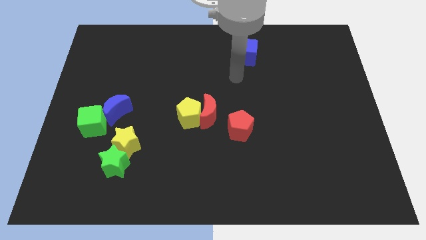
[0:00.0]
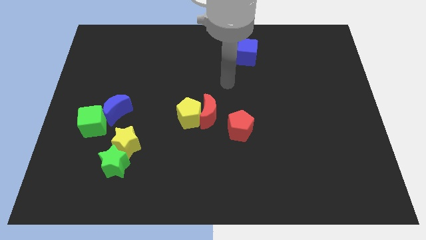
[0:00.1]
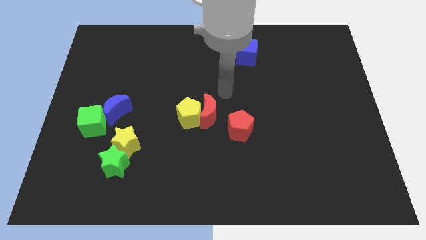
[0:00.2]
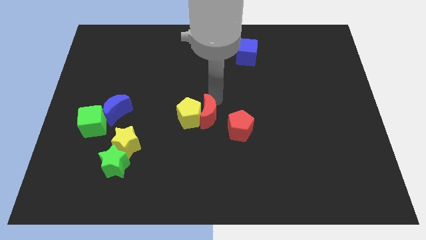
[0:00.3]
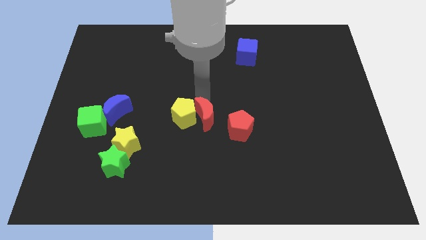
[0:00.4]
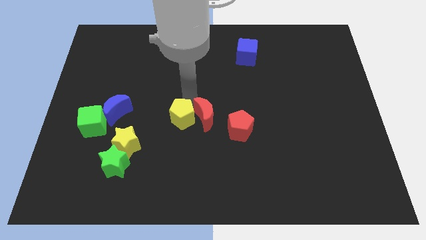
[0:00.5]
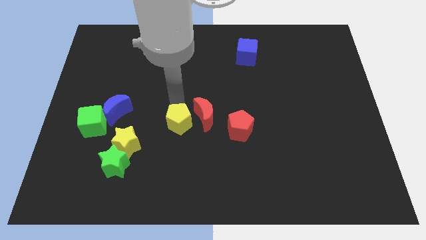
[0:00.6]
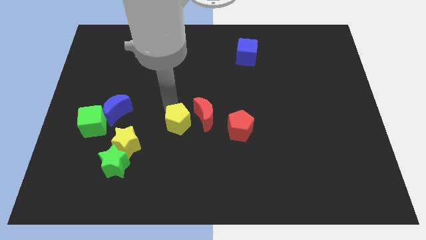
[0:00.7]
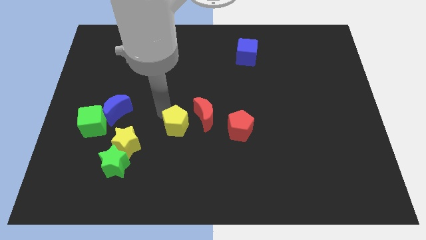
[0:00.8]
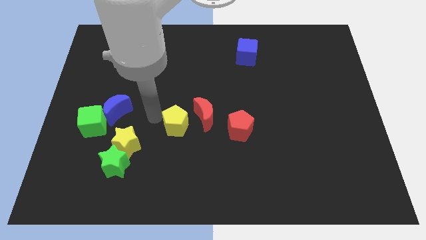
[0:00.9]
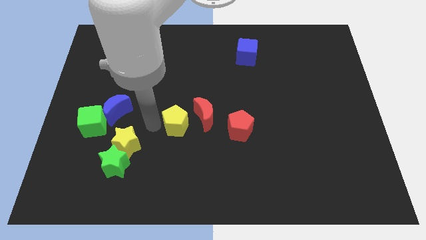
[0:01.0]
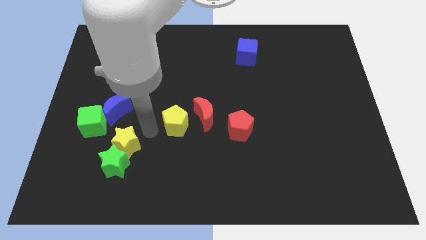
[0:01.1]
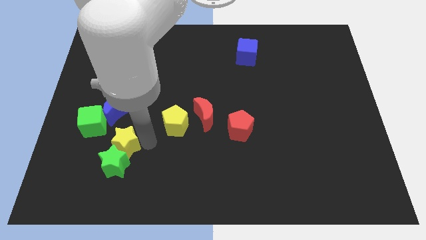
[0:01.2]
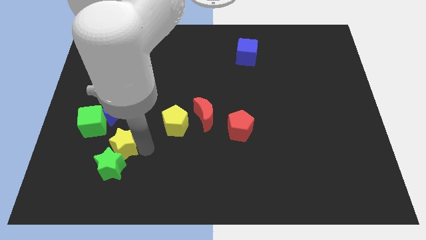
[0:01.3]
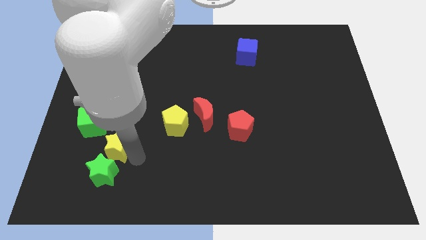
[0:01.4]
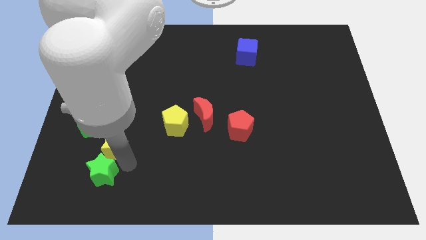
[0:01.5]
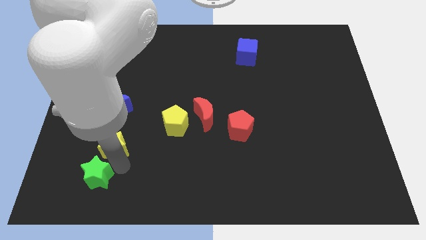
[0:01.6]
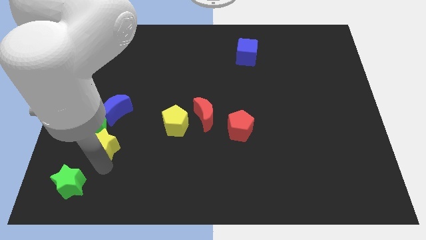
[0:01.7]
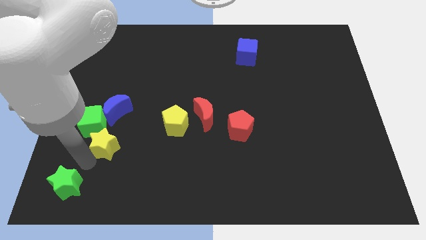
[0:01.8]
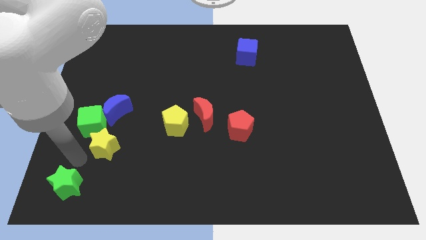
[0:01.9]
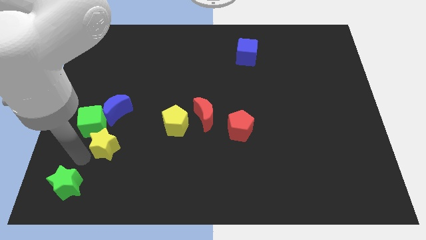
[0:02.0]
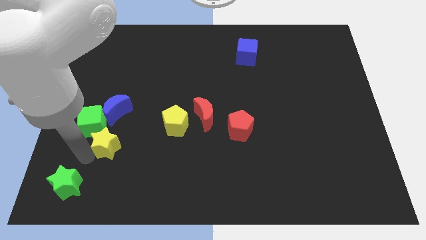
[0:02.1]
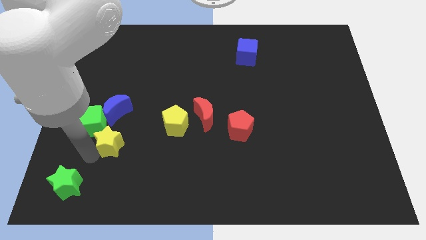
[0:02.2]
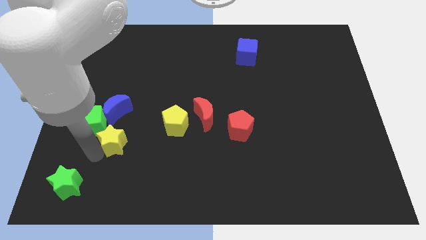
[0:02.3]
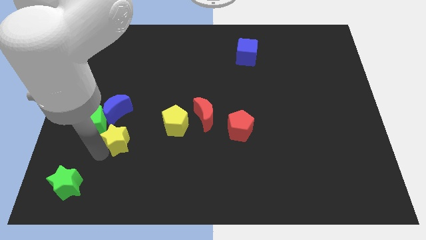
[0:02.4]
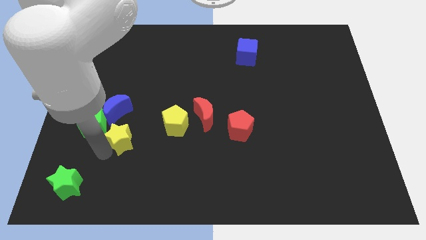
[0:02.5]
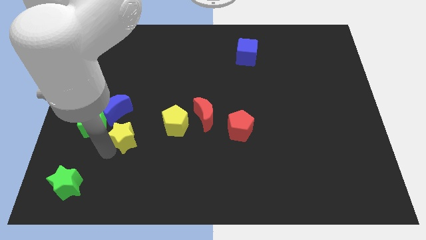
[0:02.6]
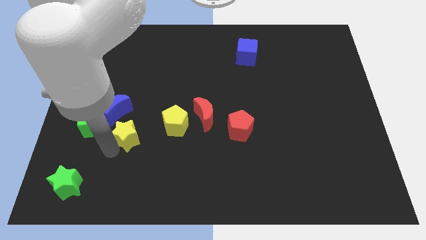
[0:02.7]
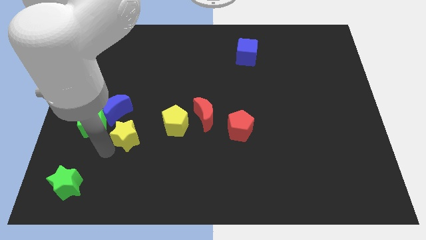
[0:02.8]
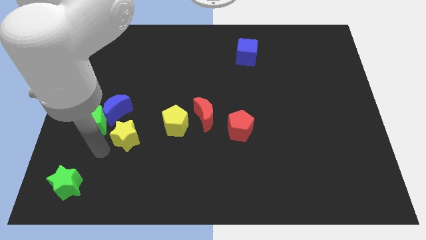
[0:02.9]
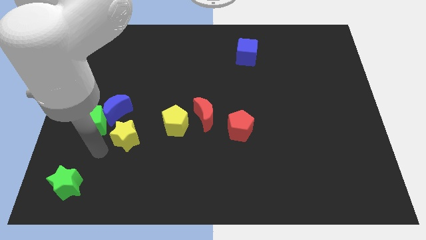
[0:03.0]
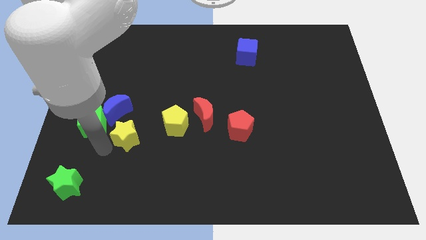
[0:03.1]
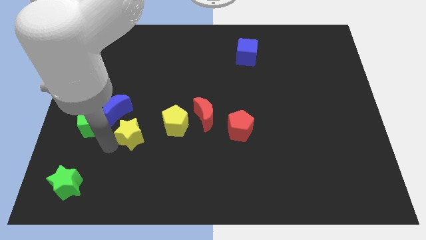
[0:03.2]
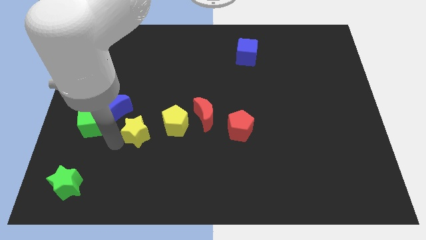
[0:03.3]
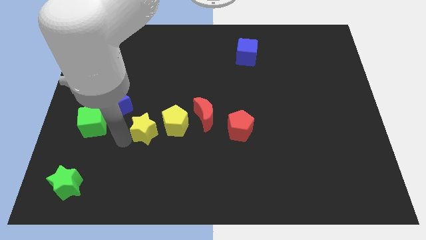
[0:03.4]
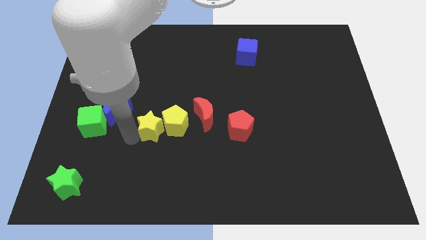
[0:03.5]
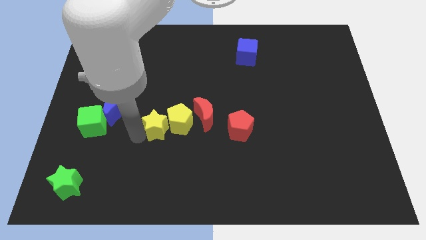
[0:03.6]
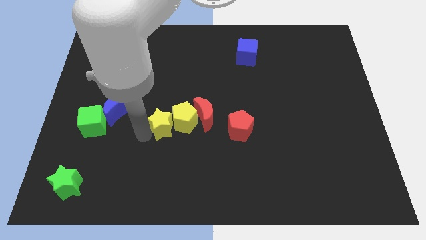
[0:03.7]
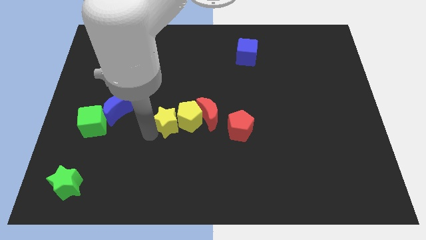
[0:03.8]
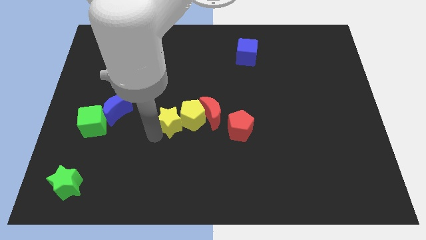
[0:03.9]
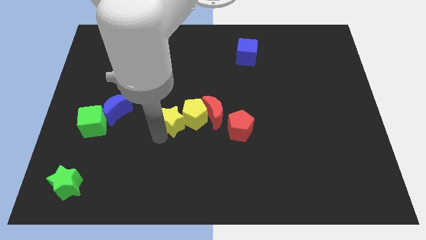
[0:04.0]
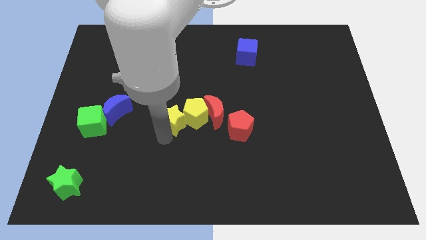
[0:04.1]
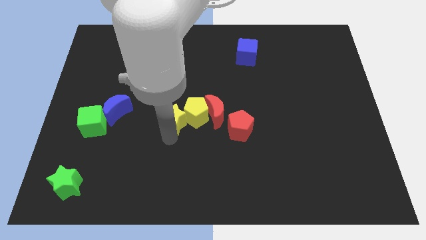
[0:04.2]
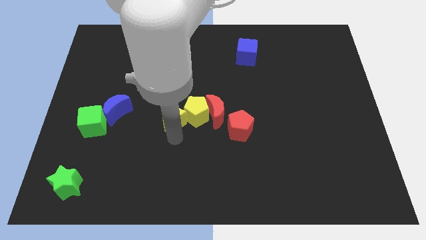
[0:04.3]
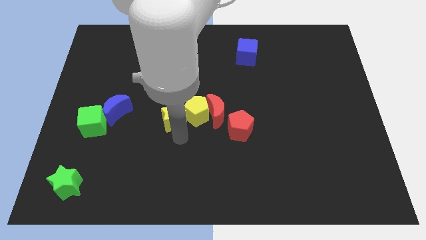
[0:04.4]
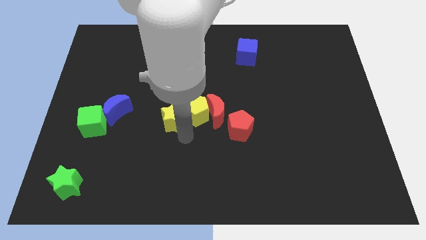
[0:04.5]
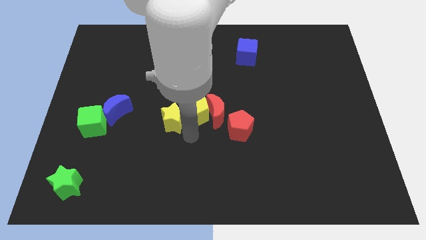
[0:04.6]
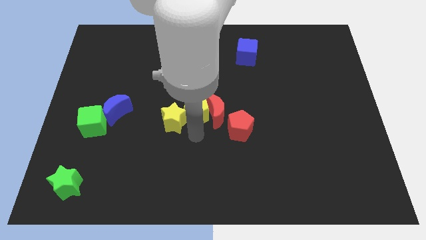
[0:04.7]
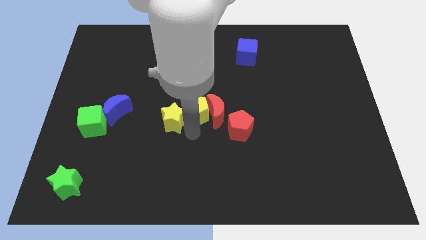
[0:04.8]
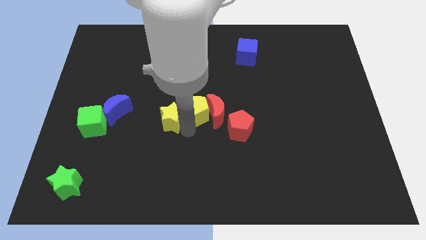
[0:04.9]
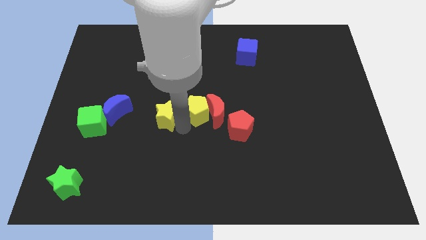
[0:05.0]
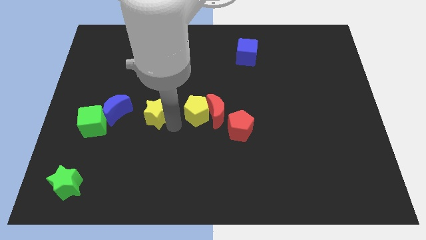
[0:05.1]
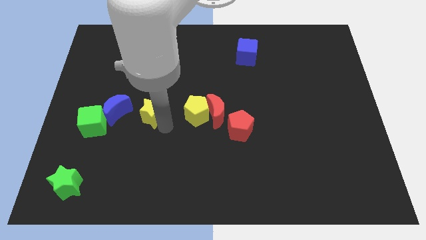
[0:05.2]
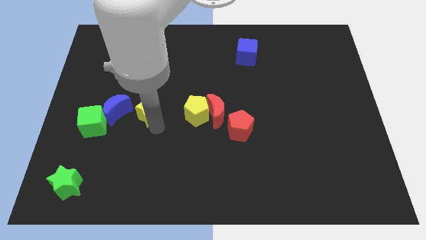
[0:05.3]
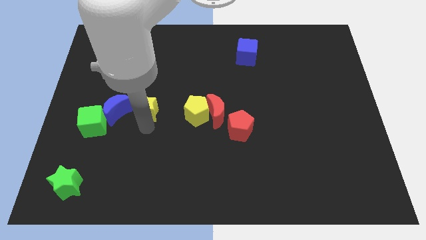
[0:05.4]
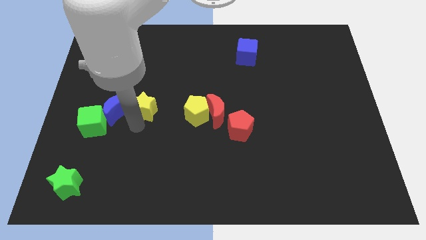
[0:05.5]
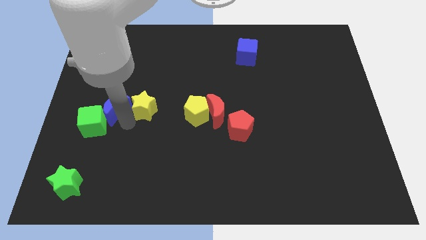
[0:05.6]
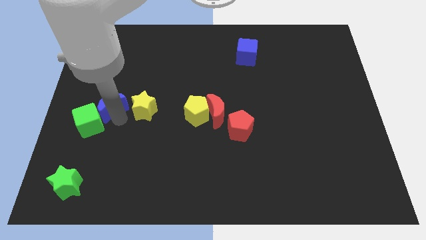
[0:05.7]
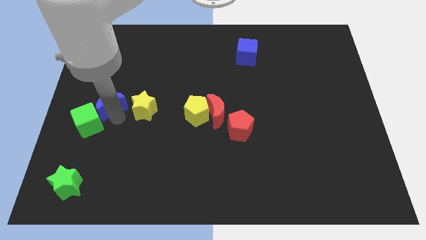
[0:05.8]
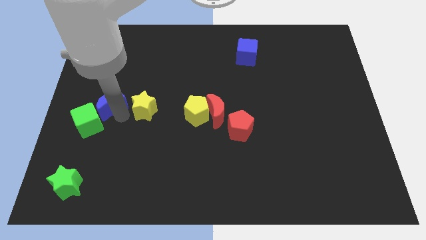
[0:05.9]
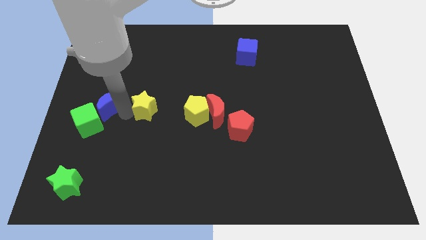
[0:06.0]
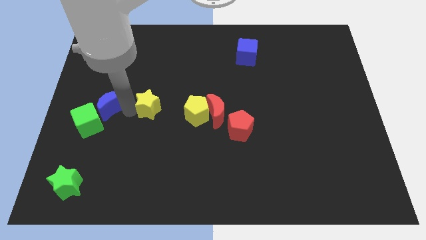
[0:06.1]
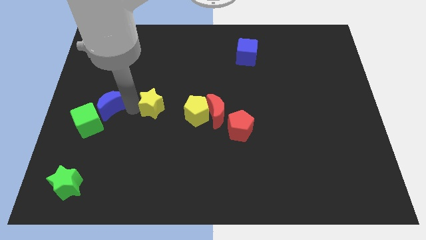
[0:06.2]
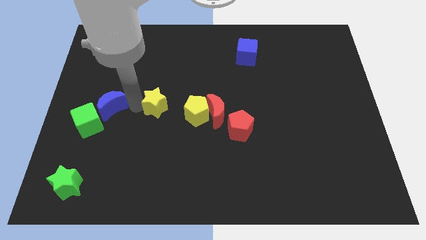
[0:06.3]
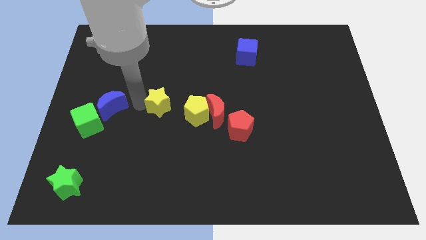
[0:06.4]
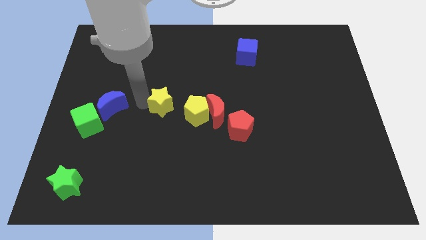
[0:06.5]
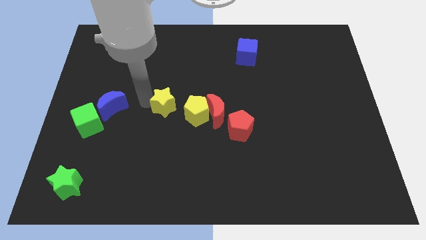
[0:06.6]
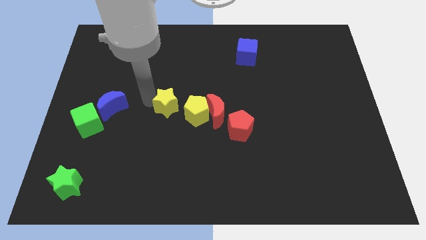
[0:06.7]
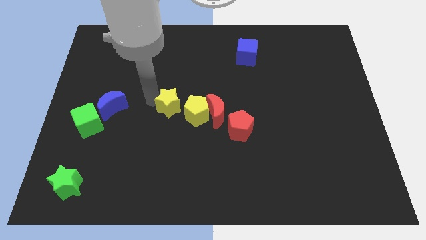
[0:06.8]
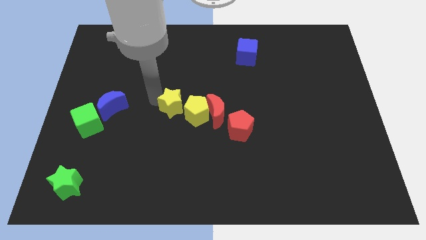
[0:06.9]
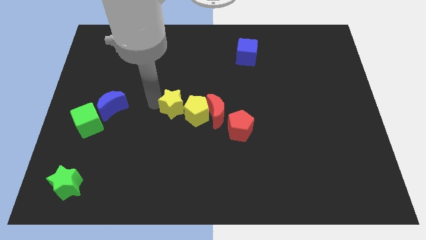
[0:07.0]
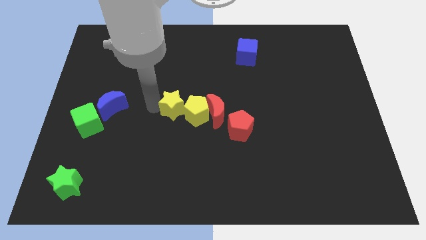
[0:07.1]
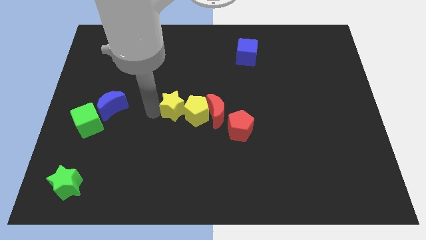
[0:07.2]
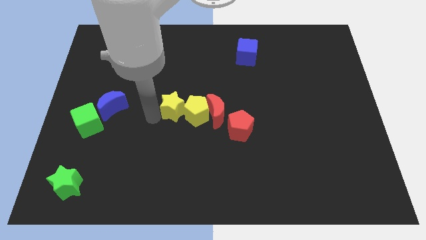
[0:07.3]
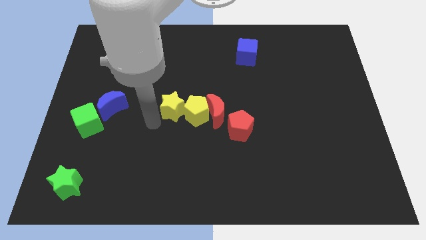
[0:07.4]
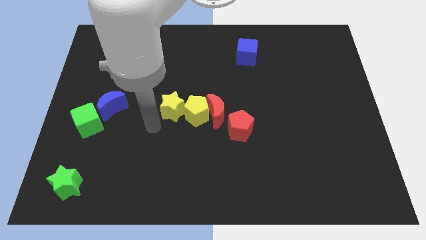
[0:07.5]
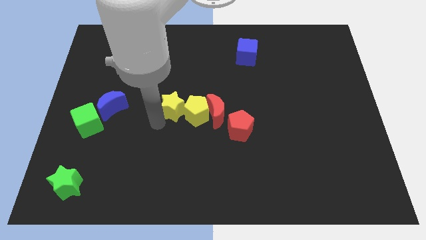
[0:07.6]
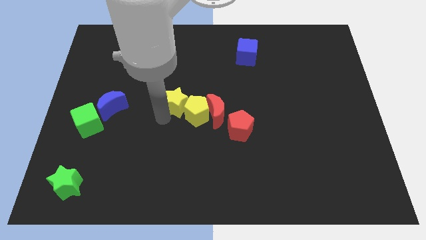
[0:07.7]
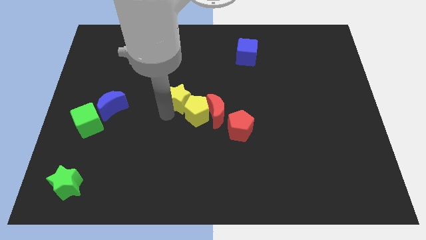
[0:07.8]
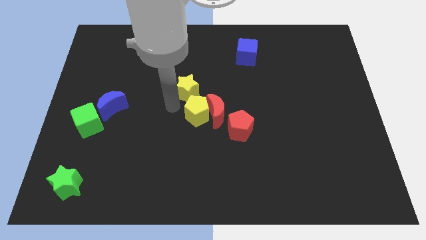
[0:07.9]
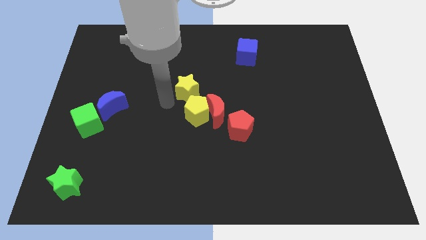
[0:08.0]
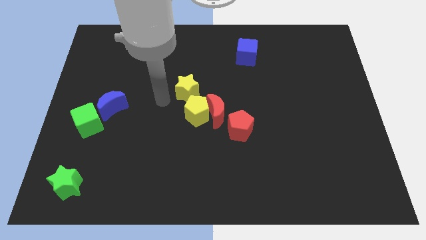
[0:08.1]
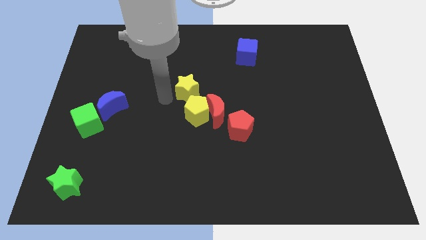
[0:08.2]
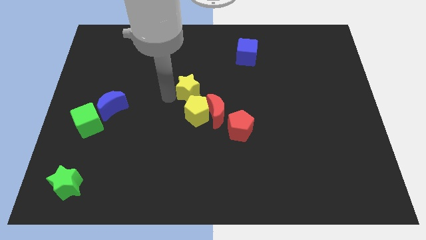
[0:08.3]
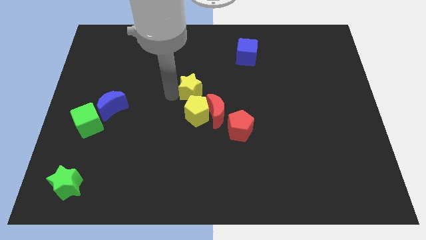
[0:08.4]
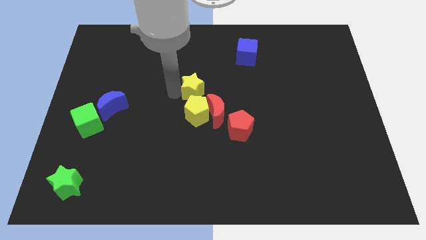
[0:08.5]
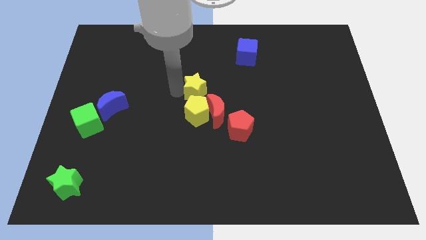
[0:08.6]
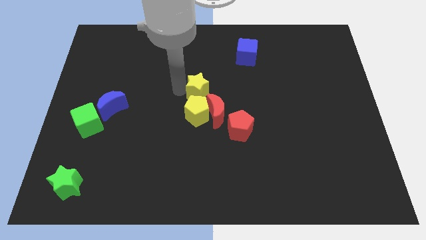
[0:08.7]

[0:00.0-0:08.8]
push the yellow star to the top side of the red moon
